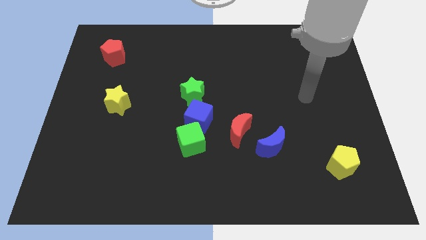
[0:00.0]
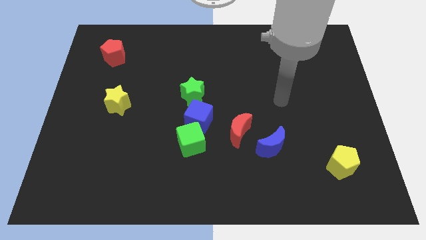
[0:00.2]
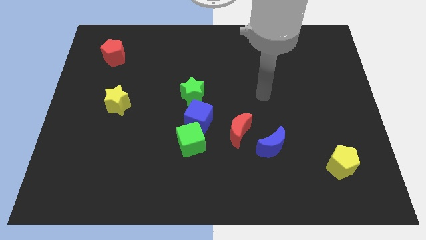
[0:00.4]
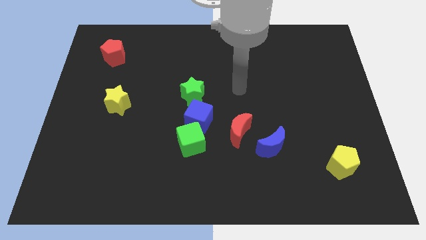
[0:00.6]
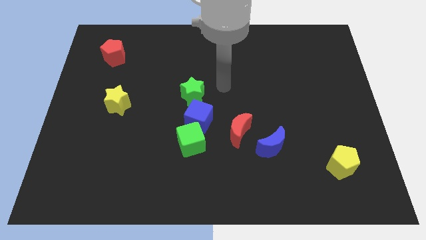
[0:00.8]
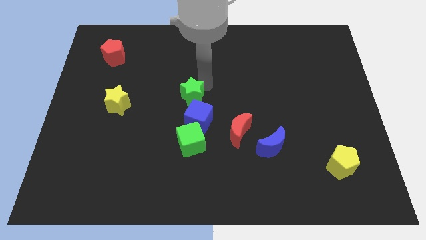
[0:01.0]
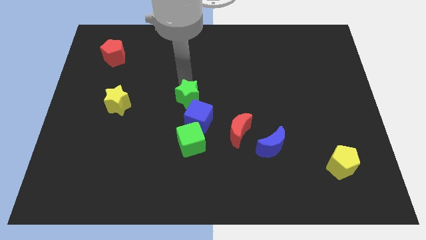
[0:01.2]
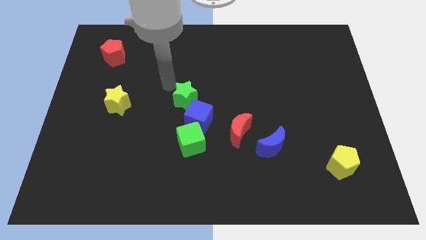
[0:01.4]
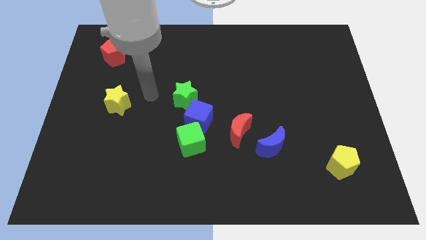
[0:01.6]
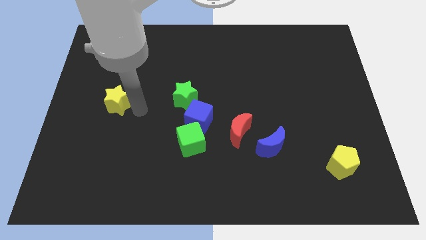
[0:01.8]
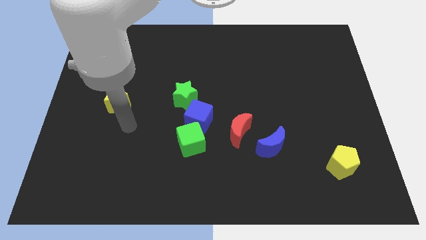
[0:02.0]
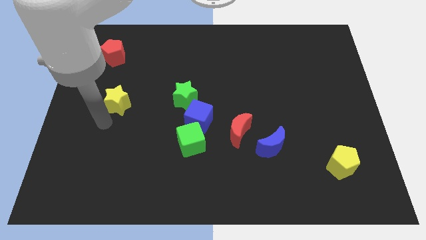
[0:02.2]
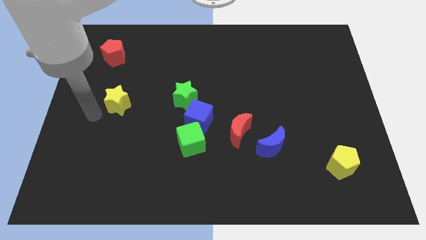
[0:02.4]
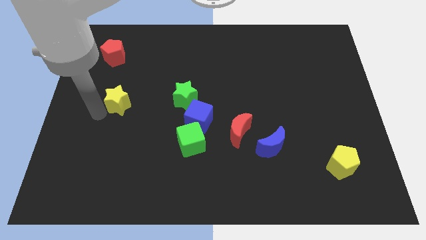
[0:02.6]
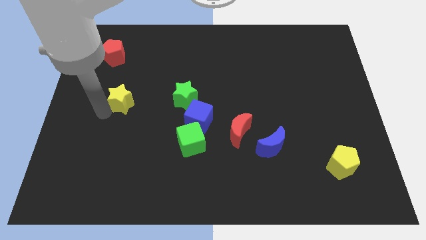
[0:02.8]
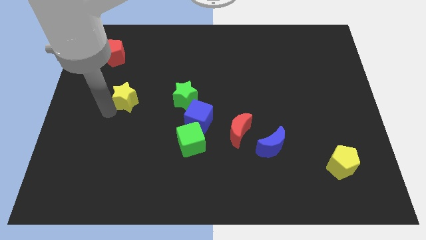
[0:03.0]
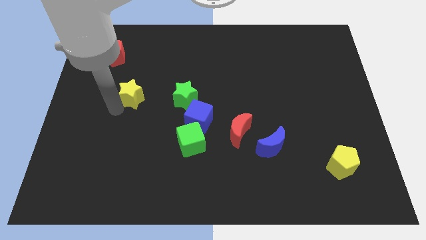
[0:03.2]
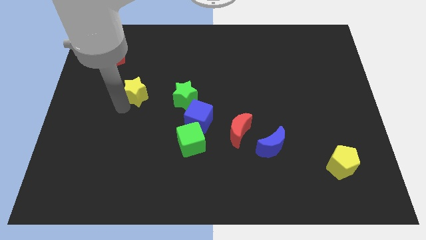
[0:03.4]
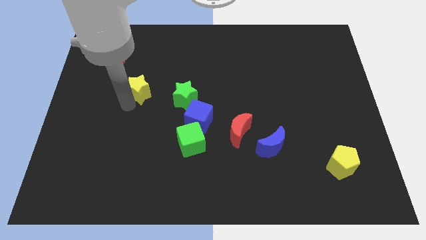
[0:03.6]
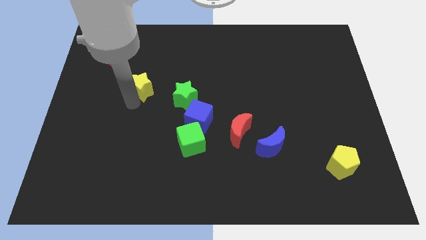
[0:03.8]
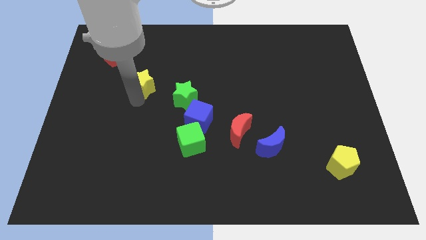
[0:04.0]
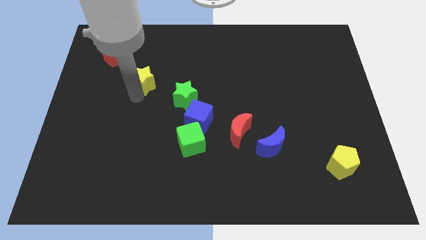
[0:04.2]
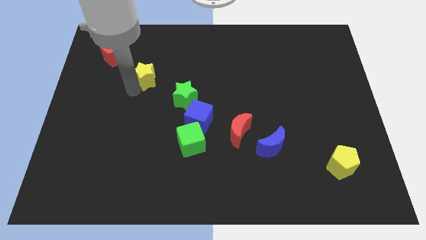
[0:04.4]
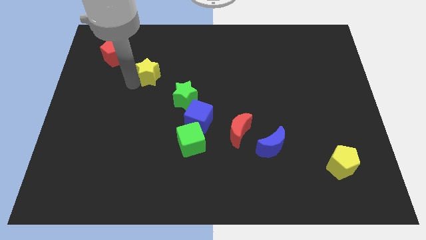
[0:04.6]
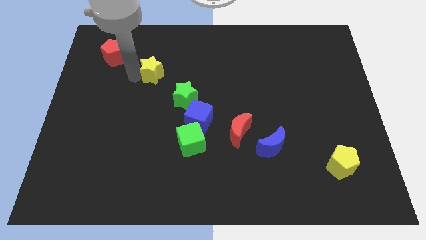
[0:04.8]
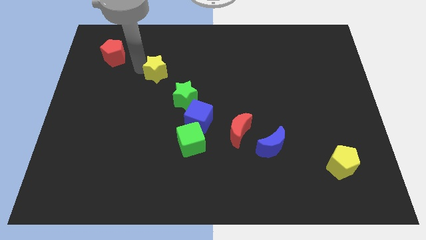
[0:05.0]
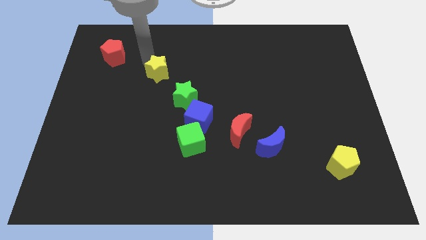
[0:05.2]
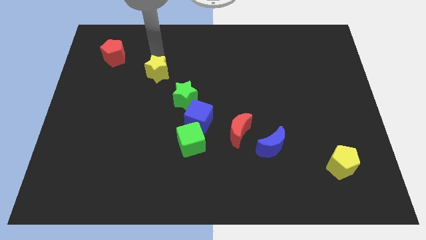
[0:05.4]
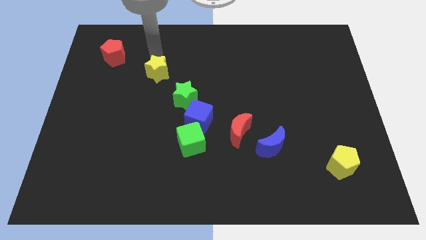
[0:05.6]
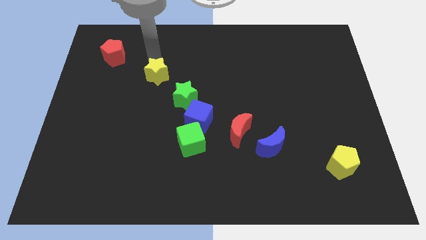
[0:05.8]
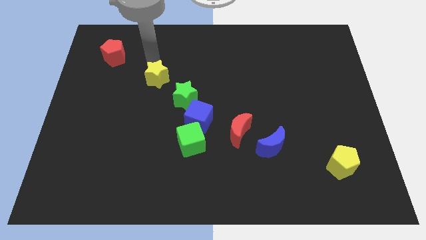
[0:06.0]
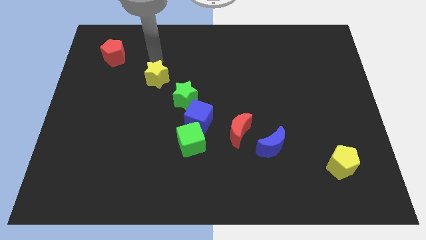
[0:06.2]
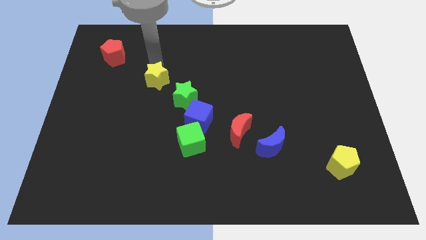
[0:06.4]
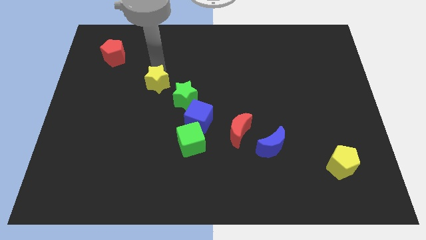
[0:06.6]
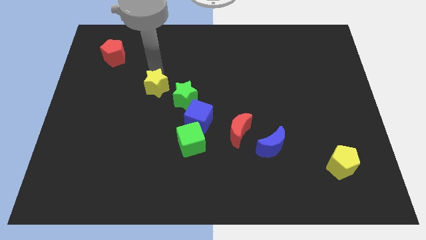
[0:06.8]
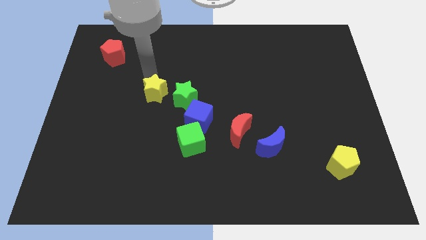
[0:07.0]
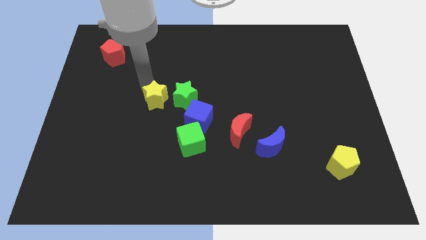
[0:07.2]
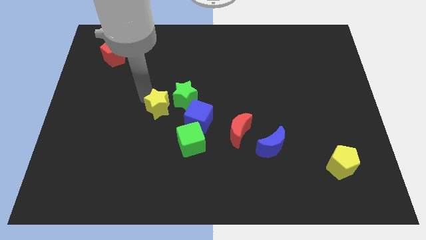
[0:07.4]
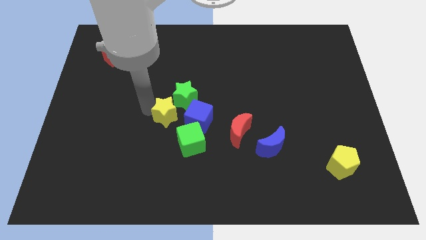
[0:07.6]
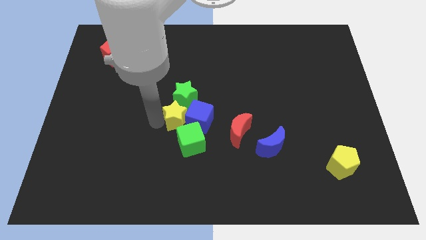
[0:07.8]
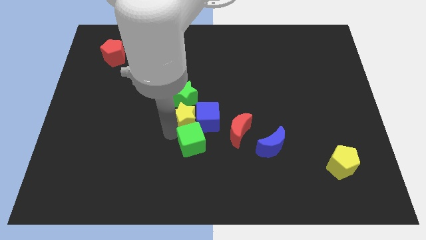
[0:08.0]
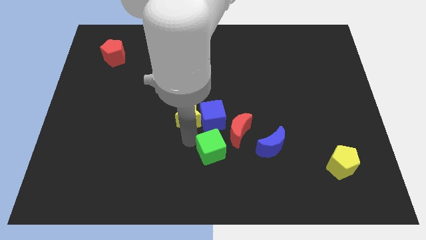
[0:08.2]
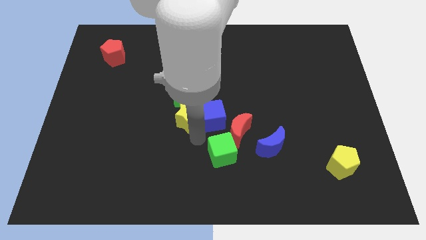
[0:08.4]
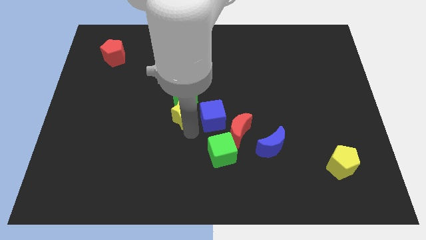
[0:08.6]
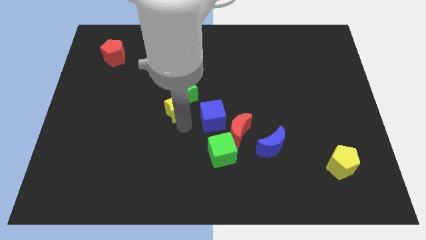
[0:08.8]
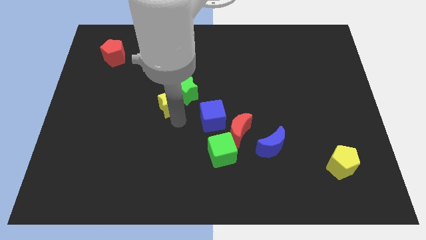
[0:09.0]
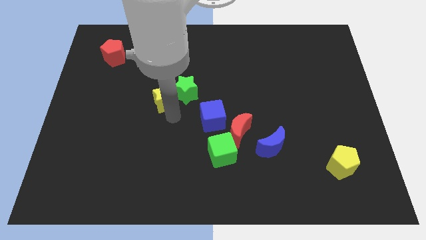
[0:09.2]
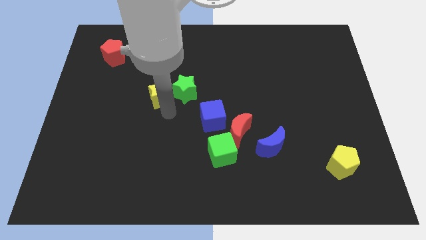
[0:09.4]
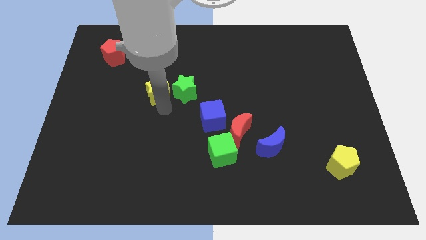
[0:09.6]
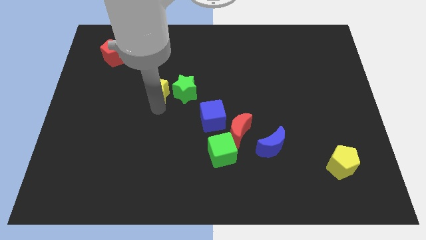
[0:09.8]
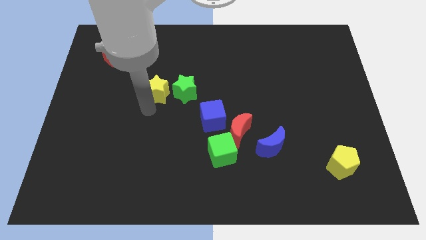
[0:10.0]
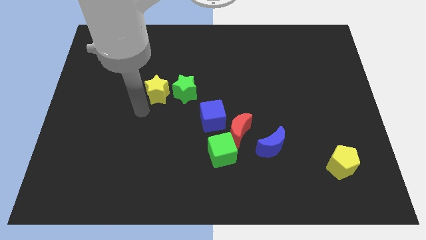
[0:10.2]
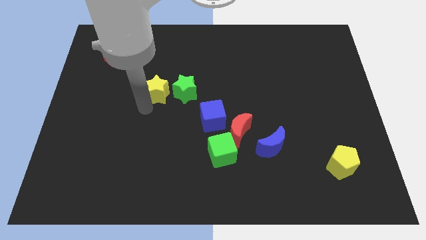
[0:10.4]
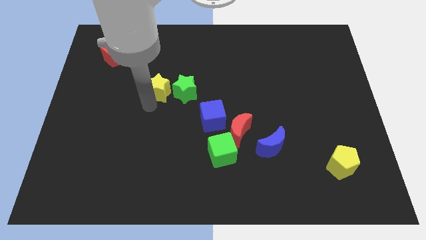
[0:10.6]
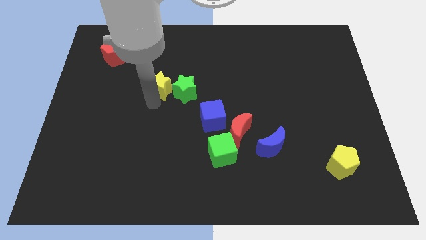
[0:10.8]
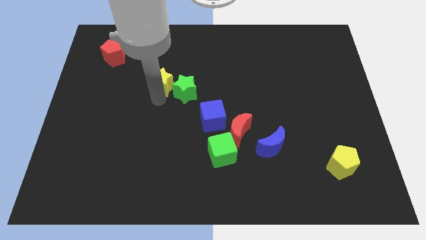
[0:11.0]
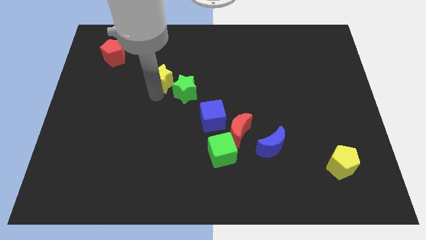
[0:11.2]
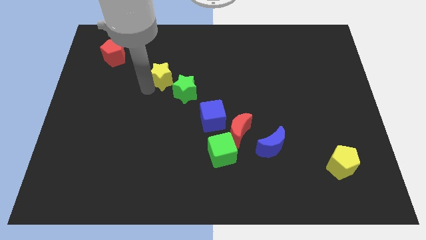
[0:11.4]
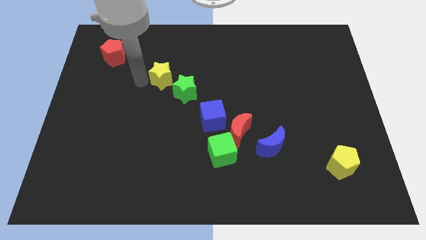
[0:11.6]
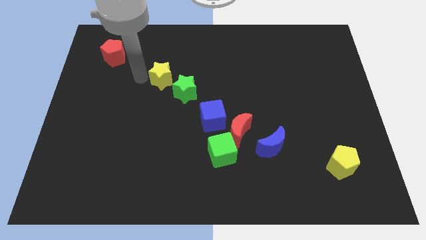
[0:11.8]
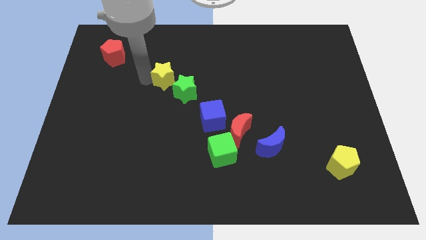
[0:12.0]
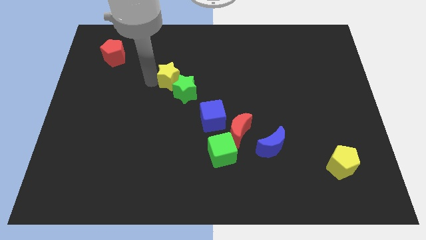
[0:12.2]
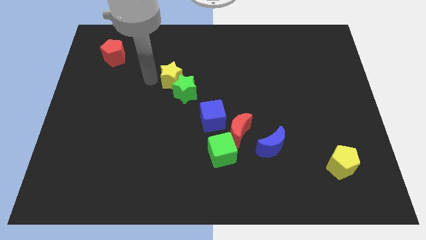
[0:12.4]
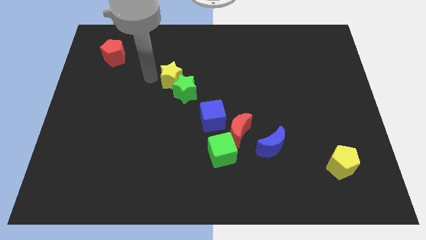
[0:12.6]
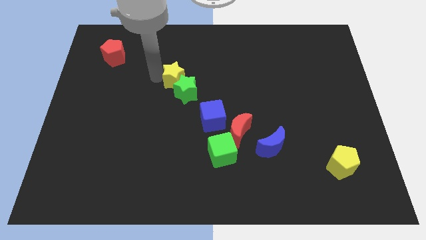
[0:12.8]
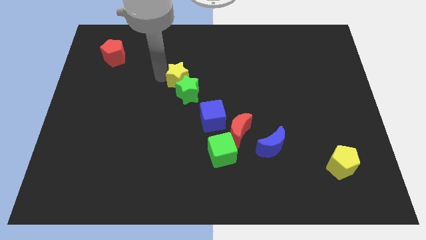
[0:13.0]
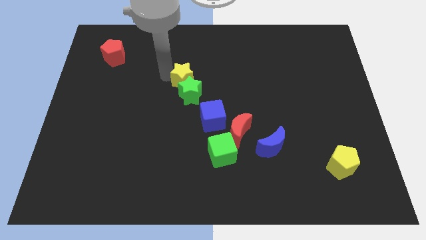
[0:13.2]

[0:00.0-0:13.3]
slide the yellow star to the top right side of the green star

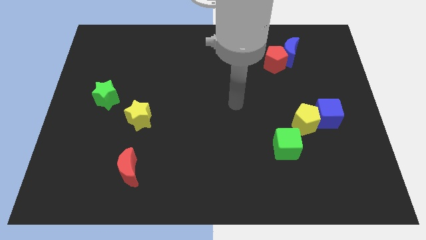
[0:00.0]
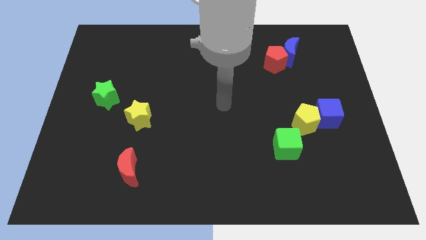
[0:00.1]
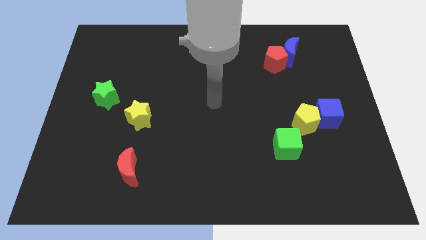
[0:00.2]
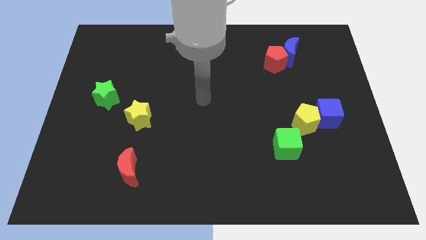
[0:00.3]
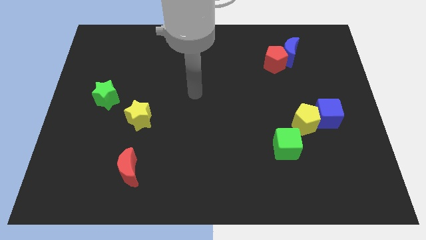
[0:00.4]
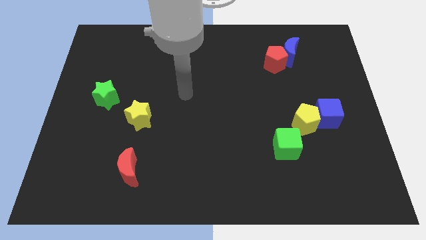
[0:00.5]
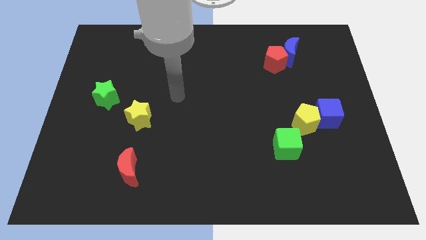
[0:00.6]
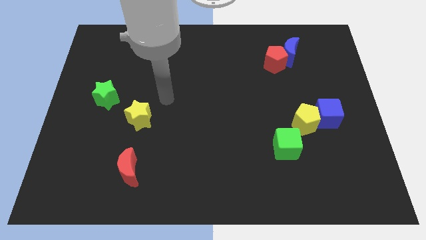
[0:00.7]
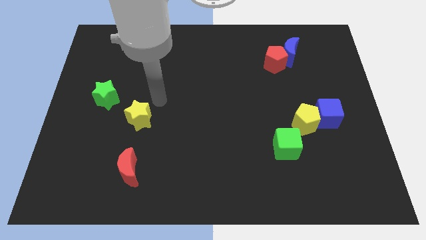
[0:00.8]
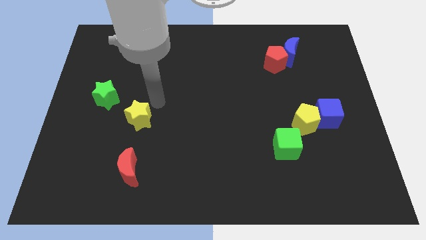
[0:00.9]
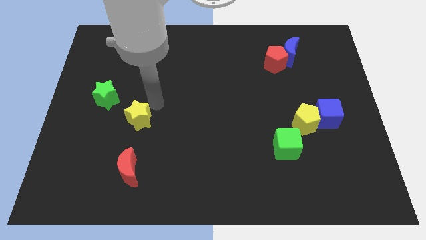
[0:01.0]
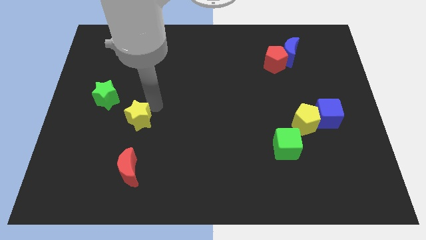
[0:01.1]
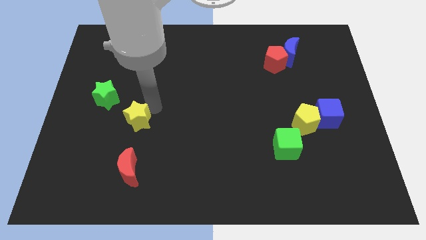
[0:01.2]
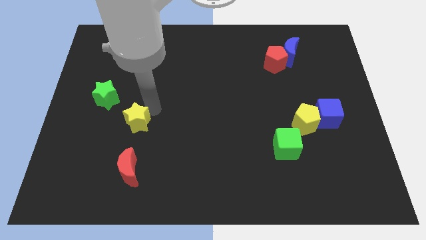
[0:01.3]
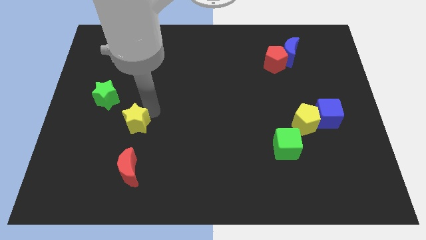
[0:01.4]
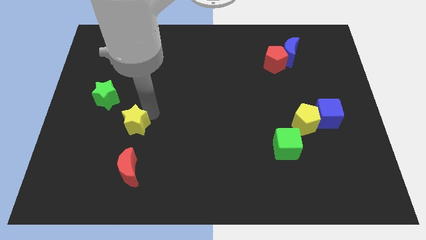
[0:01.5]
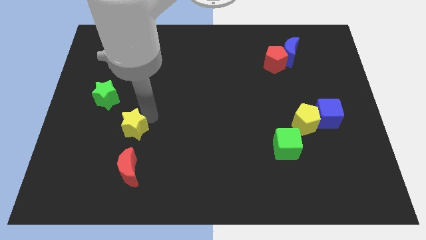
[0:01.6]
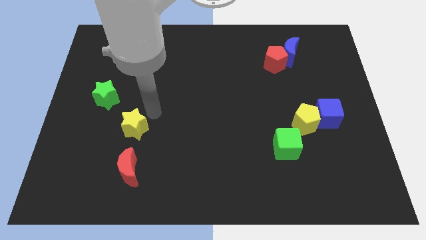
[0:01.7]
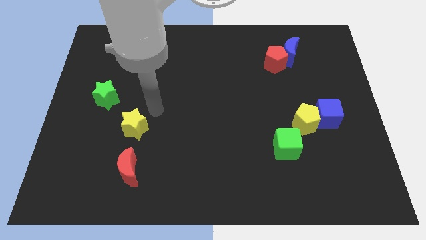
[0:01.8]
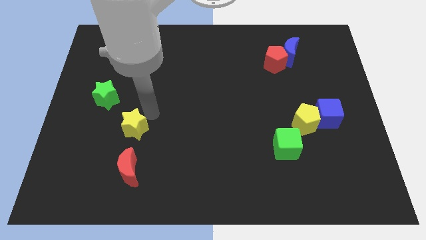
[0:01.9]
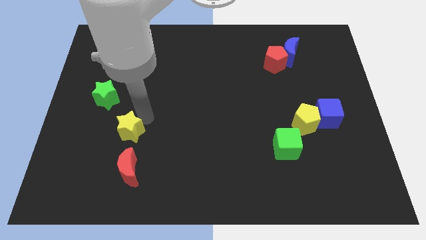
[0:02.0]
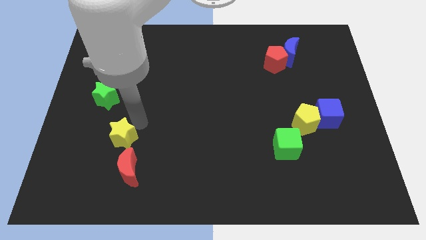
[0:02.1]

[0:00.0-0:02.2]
move the yellow star diagonally up and to the left of the red moon
